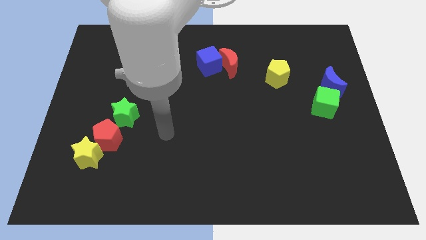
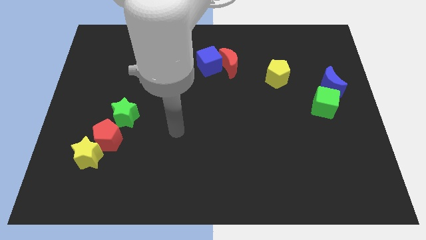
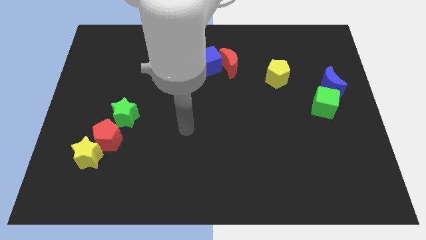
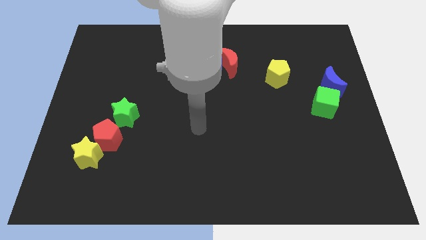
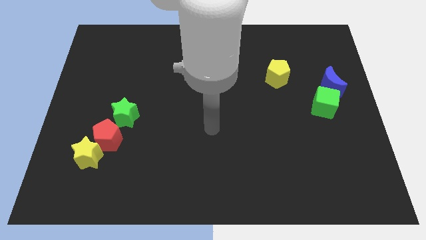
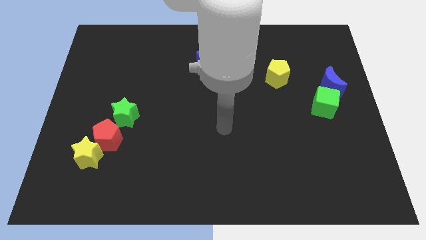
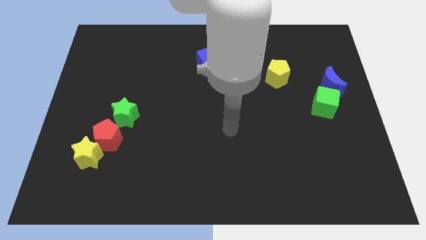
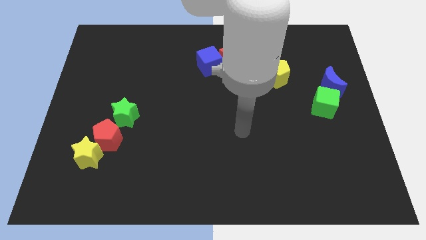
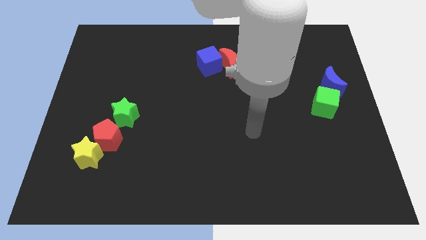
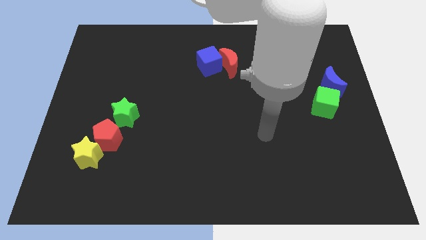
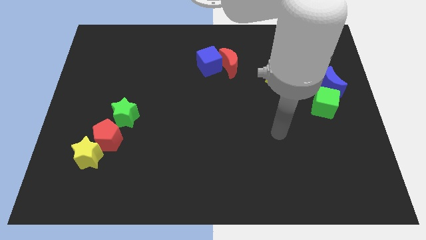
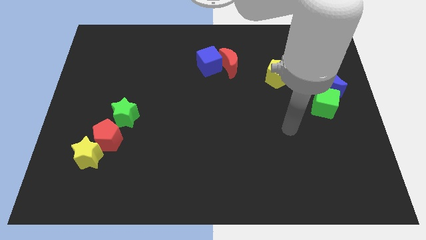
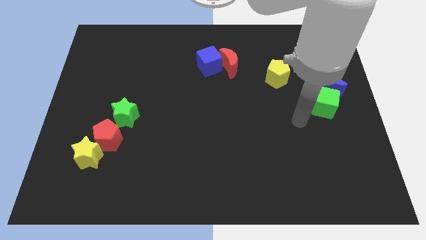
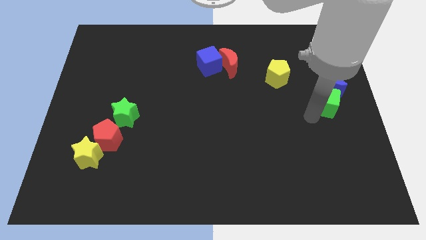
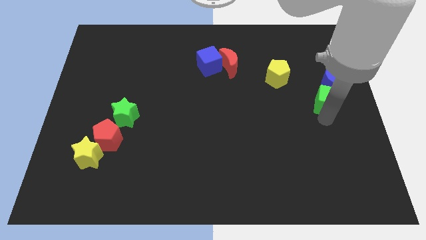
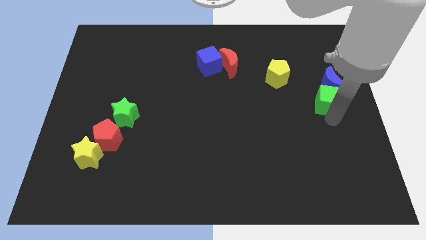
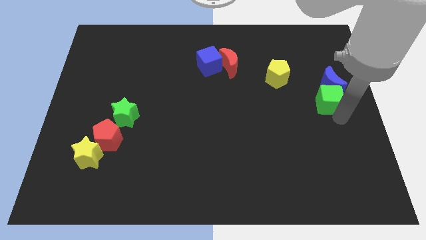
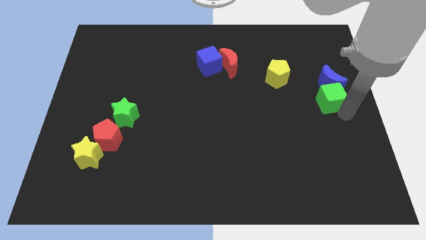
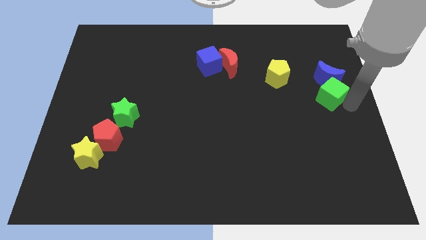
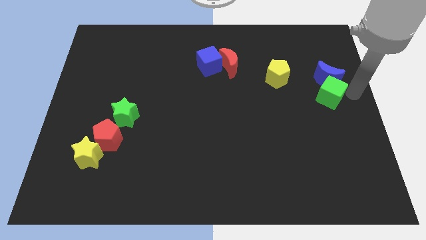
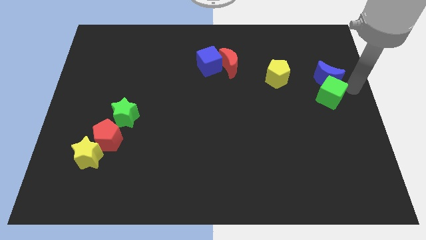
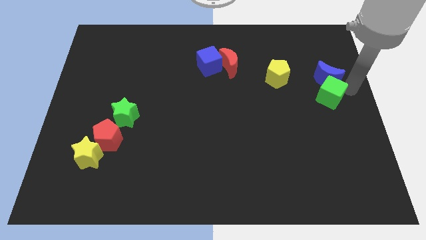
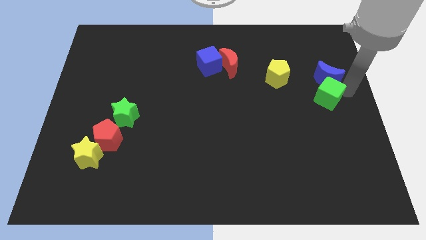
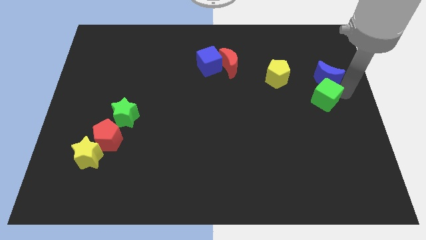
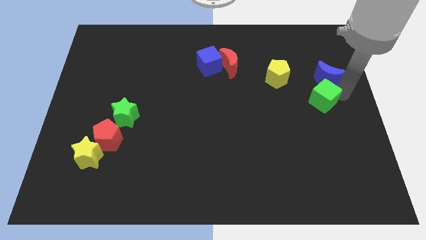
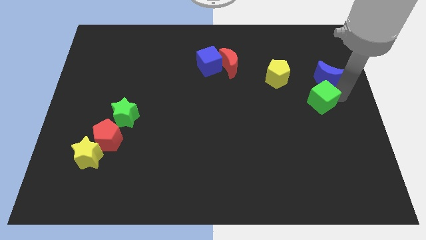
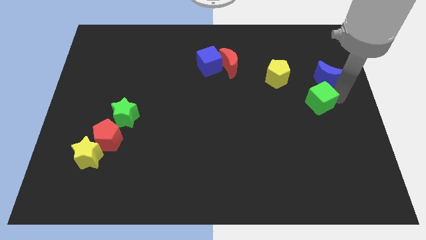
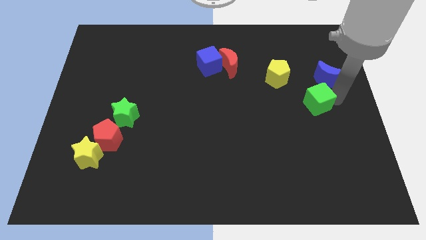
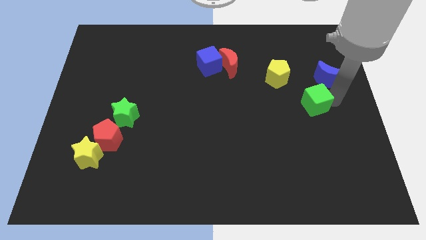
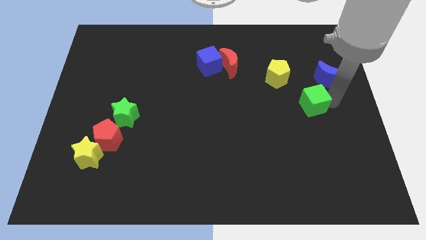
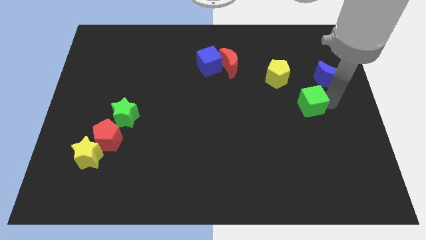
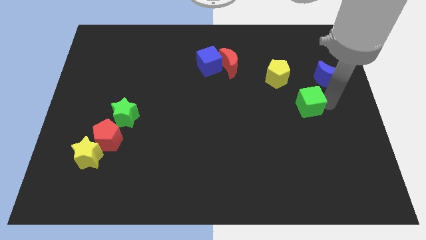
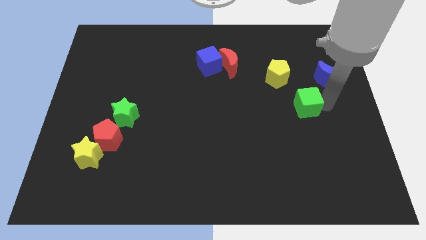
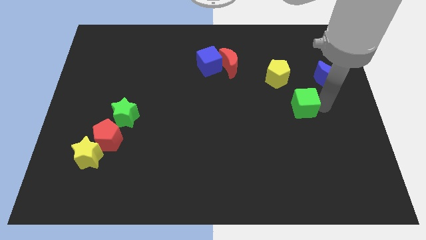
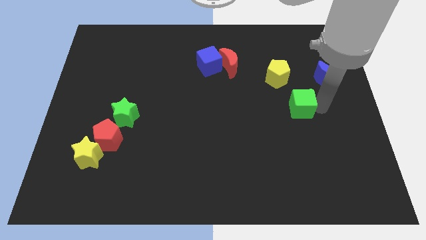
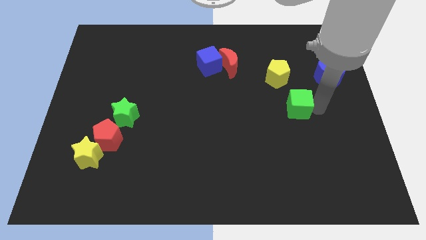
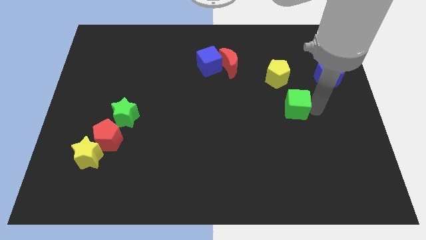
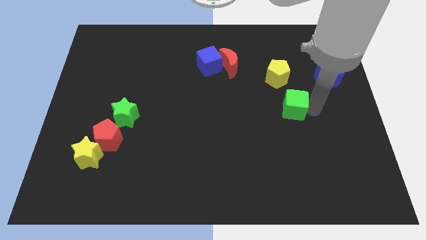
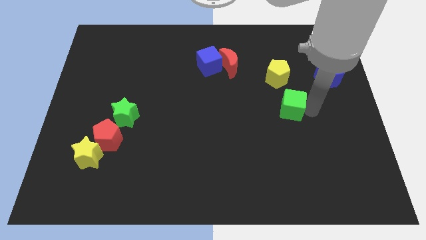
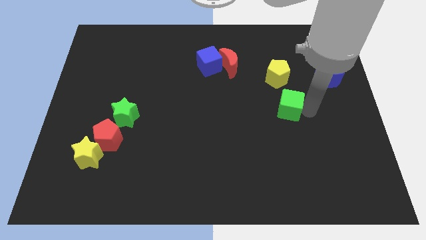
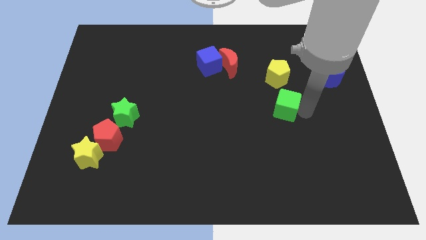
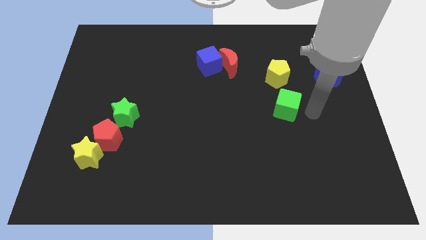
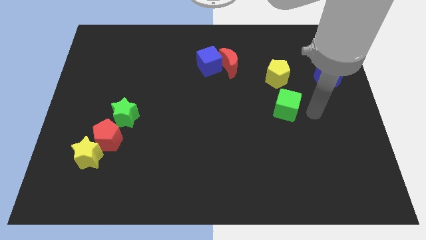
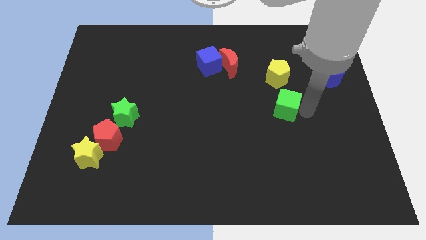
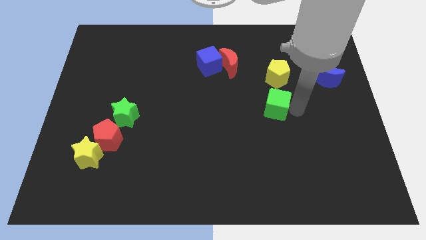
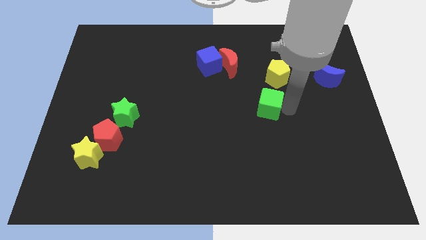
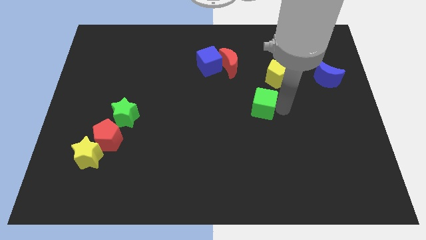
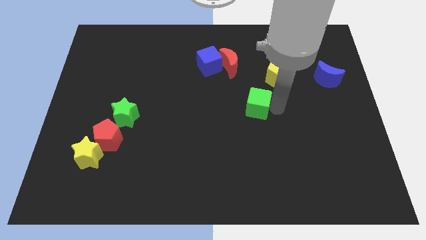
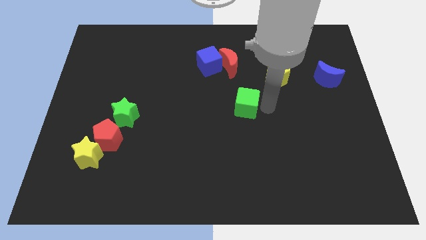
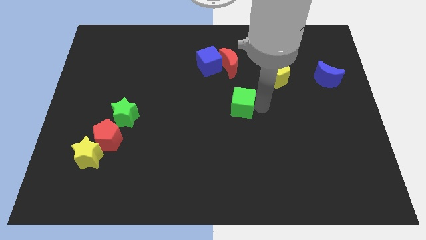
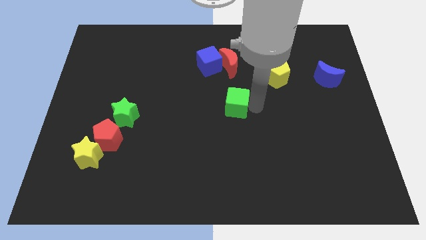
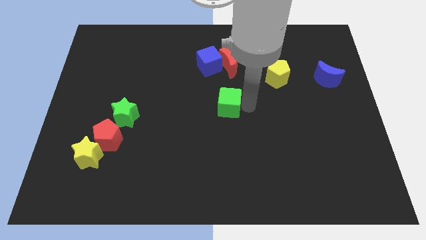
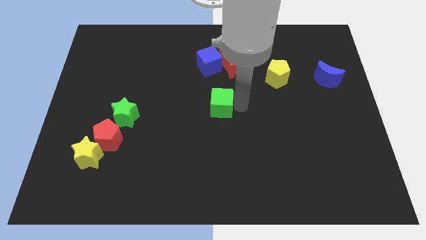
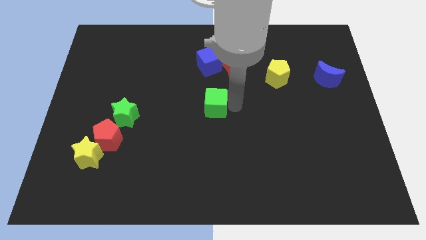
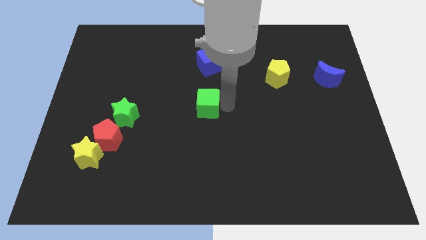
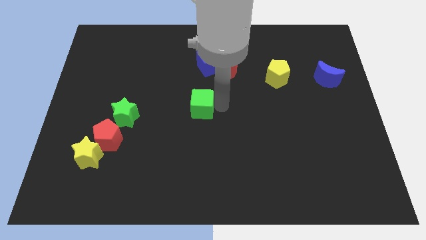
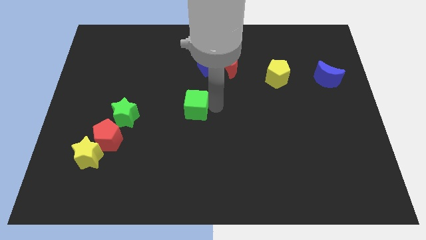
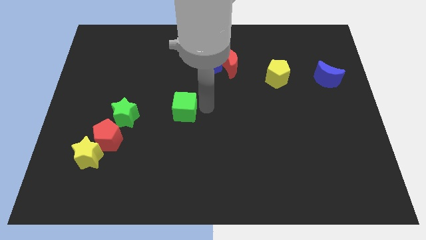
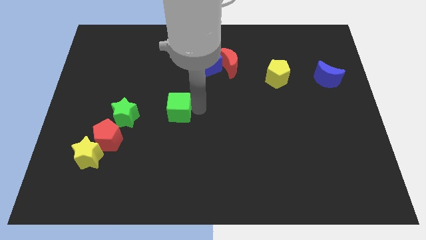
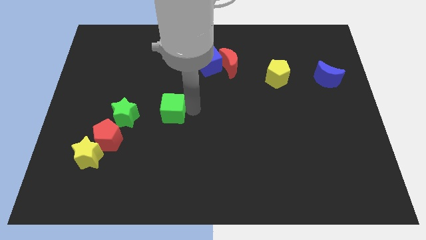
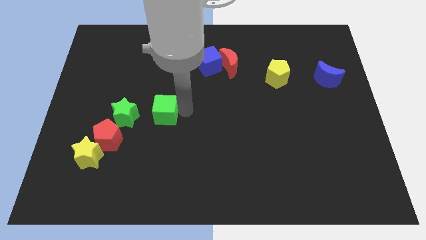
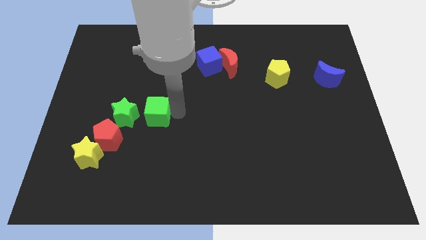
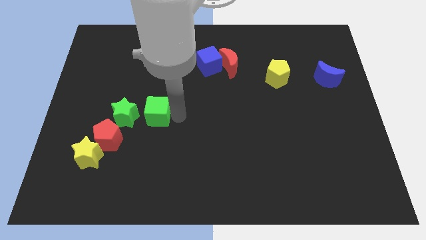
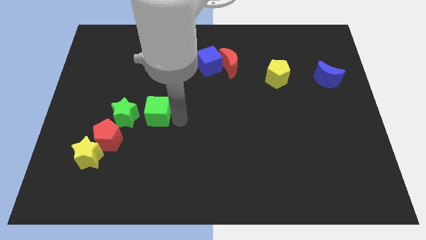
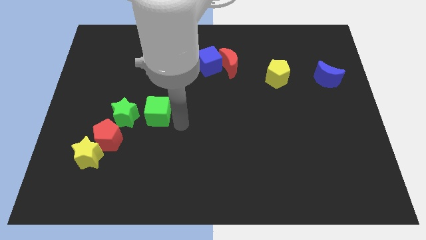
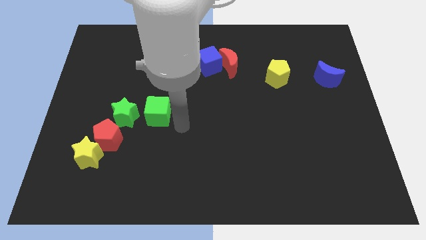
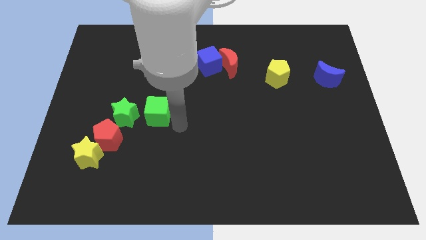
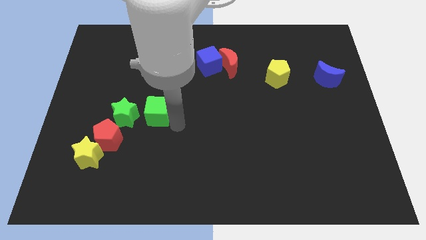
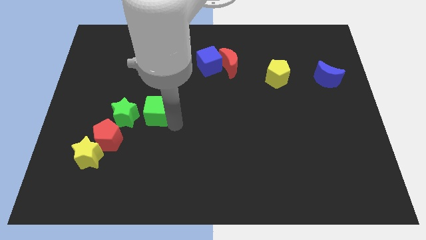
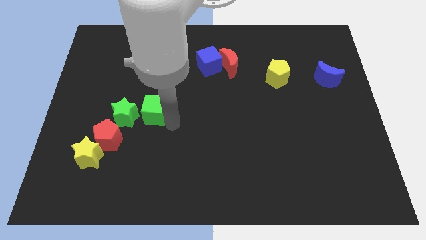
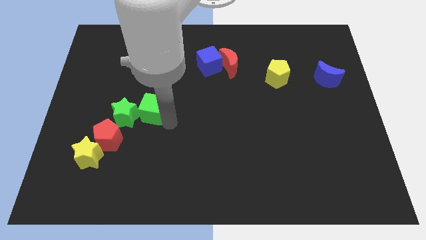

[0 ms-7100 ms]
put the green cube next to the green star

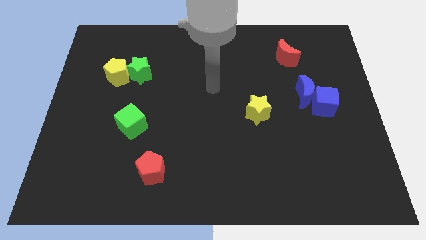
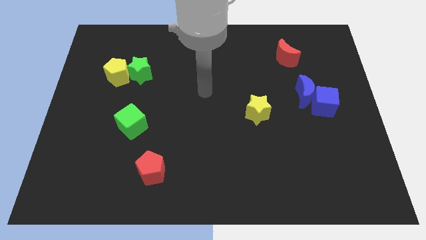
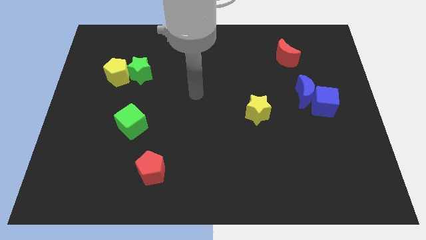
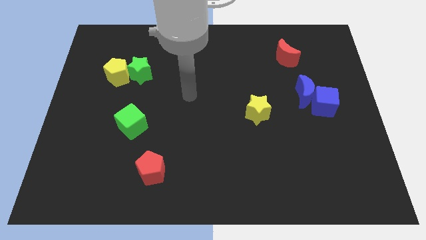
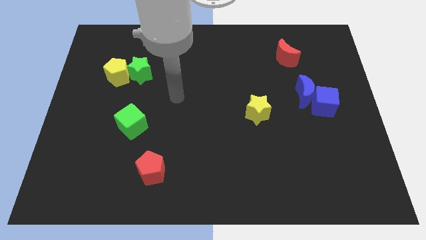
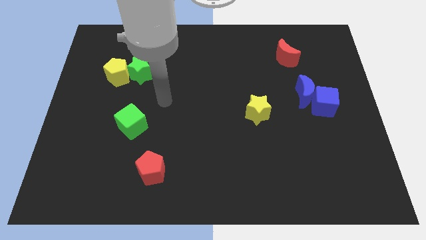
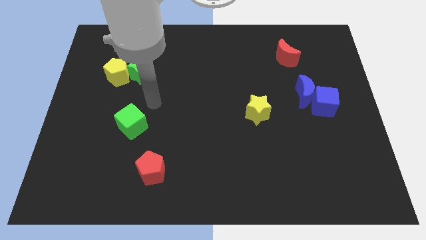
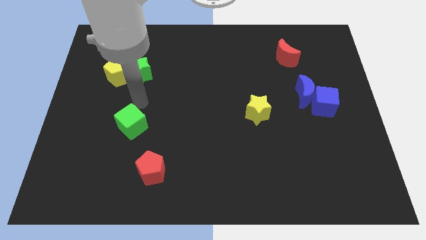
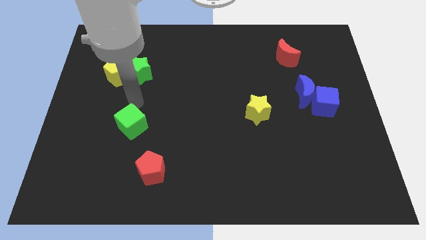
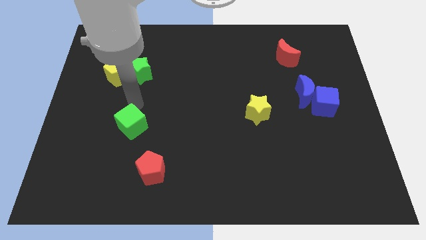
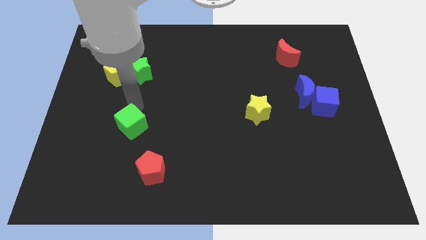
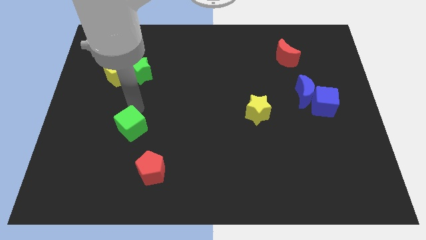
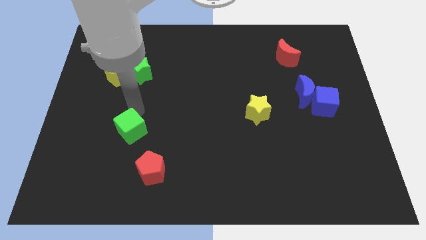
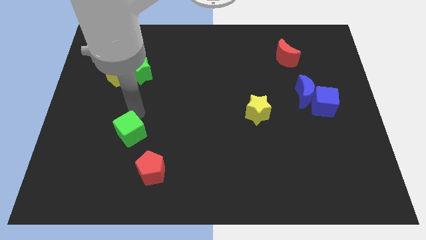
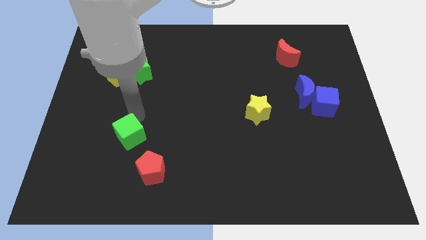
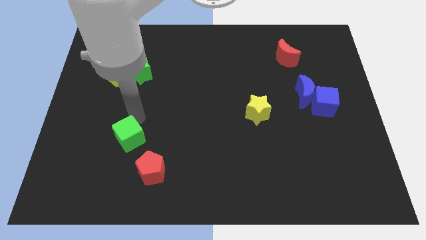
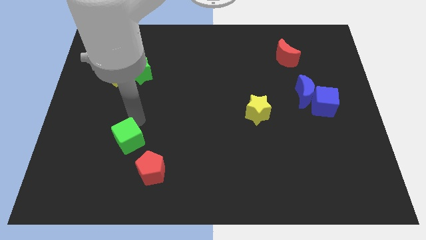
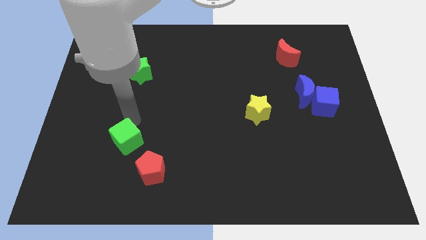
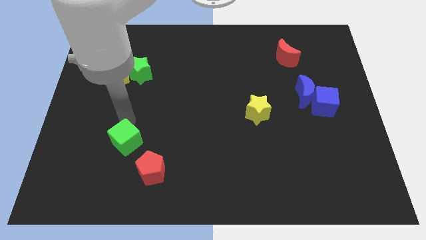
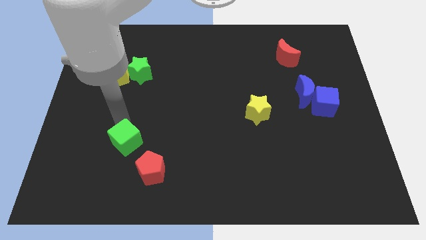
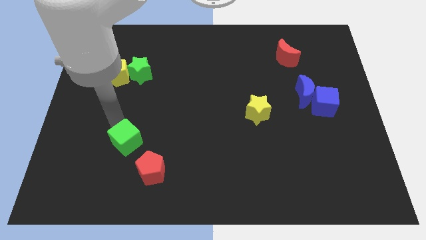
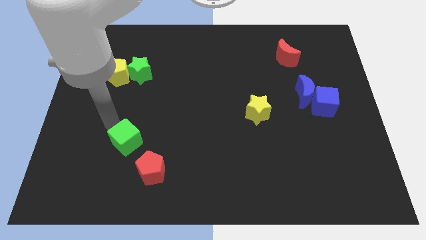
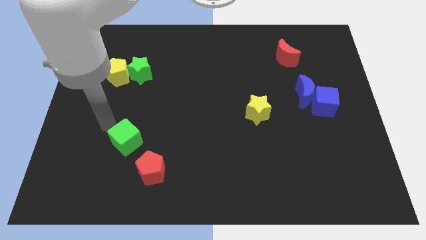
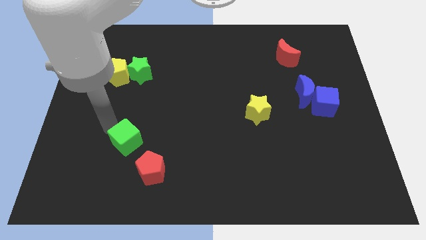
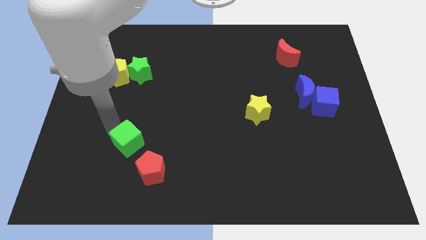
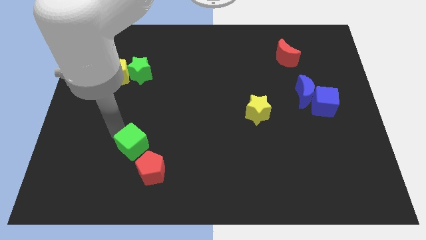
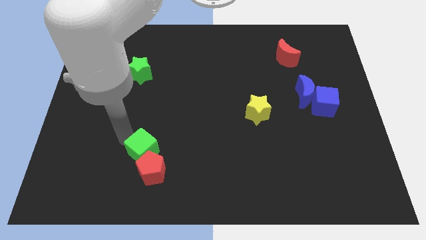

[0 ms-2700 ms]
push the green cube towards the red pentagon
